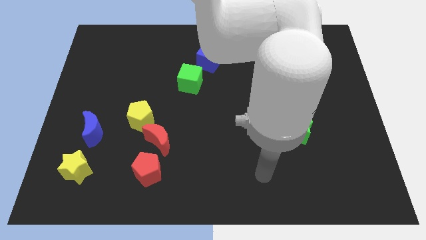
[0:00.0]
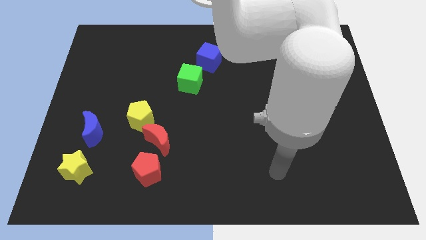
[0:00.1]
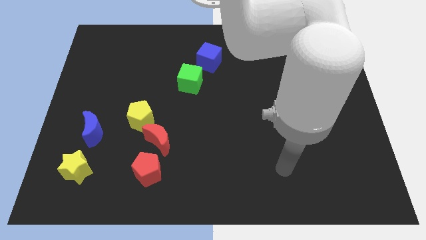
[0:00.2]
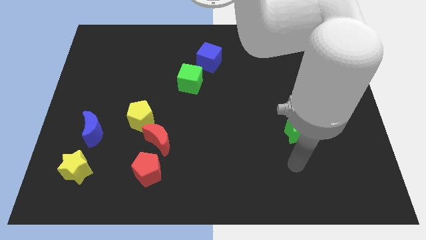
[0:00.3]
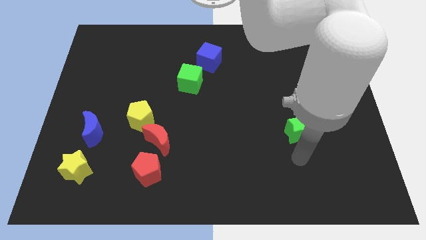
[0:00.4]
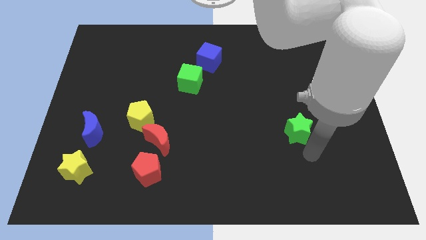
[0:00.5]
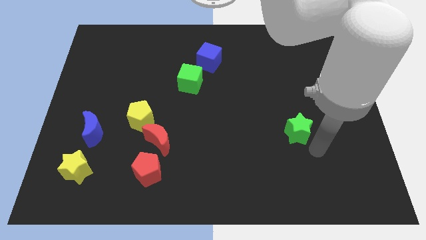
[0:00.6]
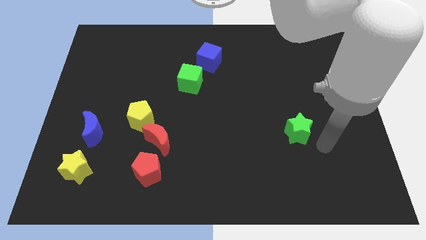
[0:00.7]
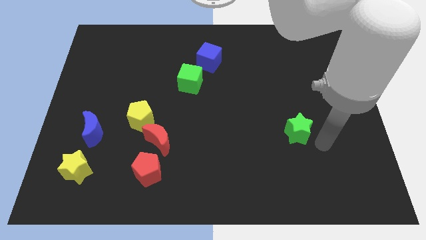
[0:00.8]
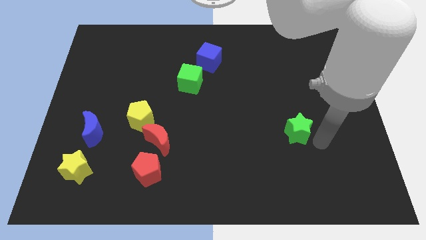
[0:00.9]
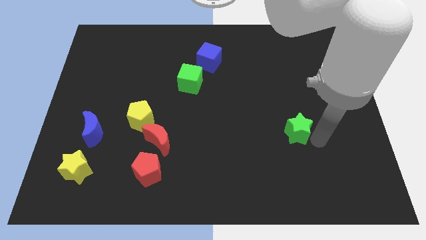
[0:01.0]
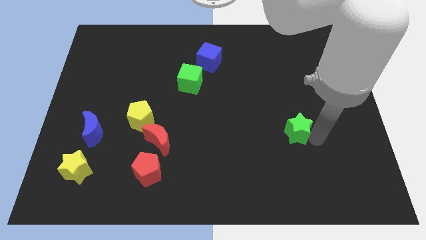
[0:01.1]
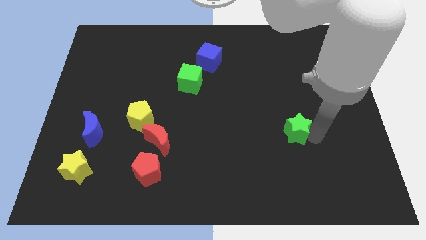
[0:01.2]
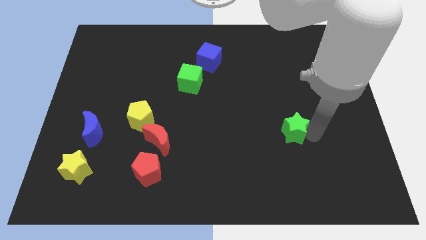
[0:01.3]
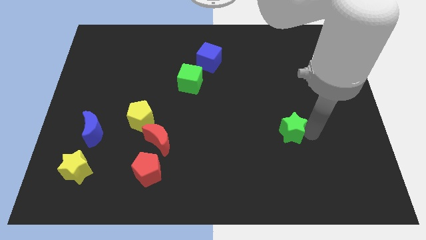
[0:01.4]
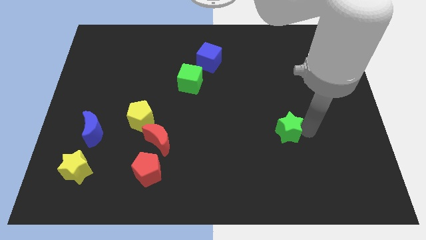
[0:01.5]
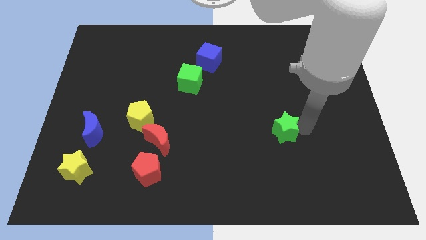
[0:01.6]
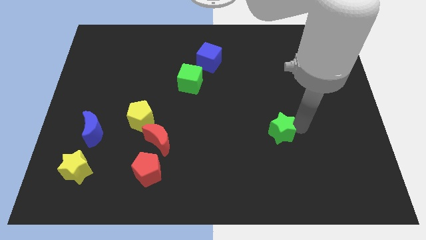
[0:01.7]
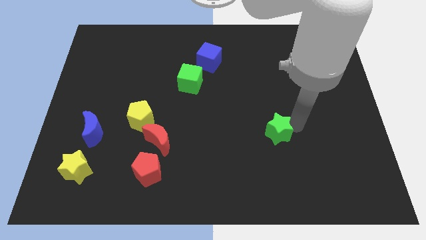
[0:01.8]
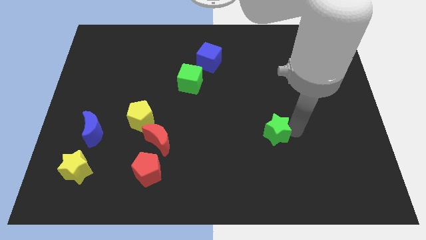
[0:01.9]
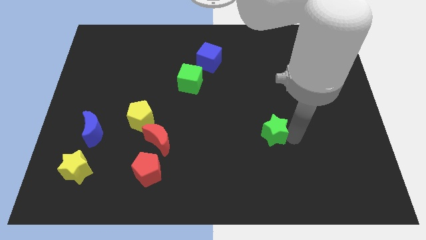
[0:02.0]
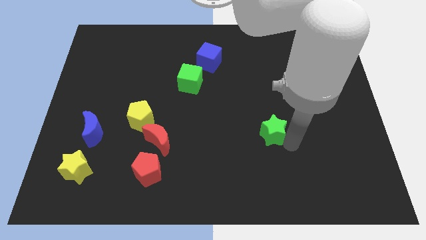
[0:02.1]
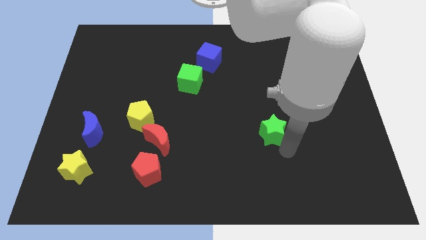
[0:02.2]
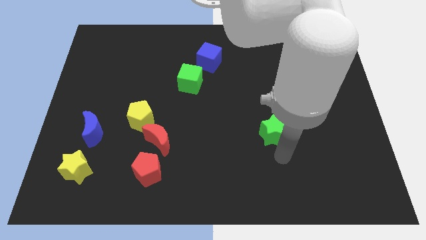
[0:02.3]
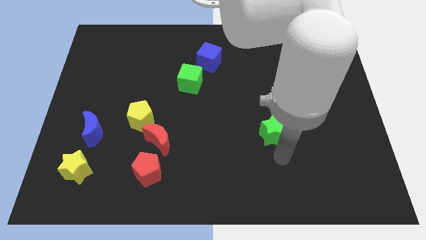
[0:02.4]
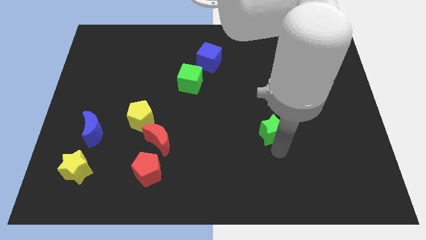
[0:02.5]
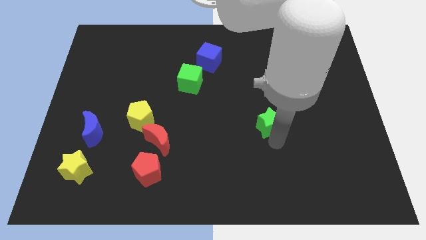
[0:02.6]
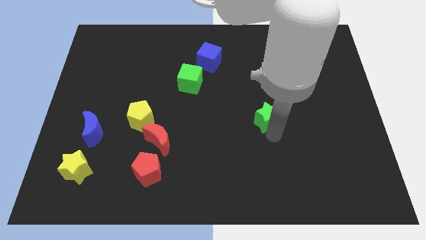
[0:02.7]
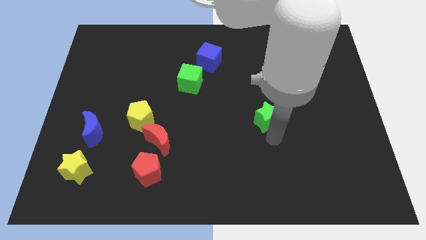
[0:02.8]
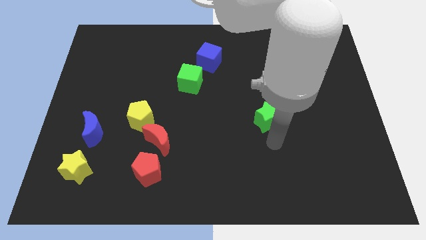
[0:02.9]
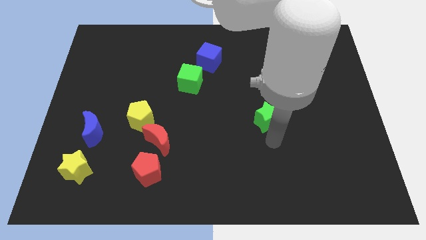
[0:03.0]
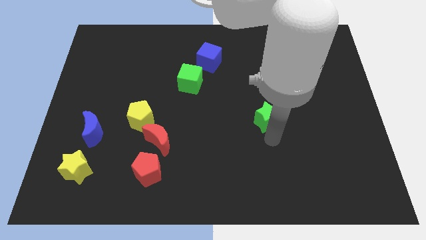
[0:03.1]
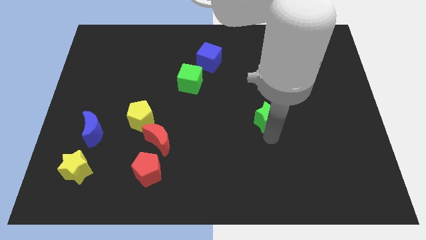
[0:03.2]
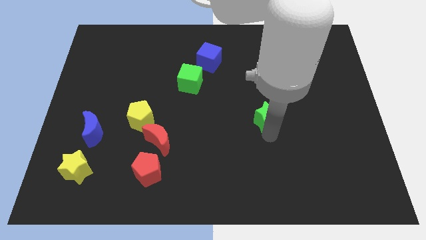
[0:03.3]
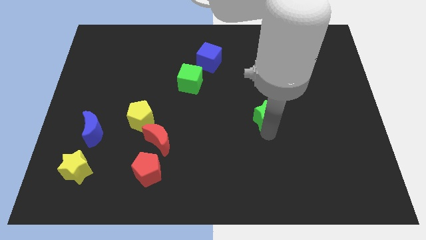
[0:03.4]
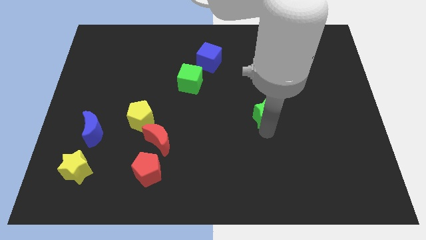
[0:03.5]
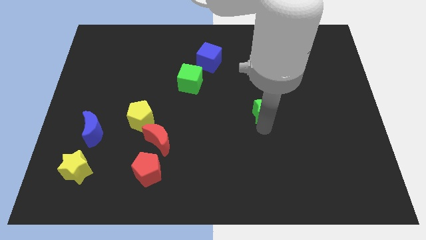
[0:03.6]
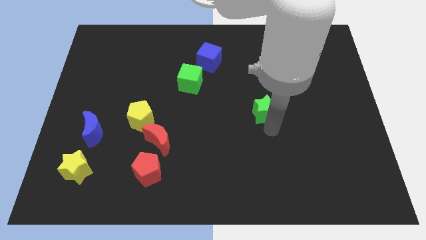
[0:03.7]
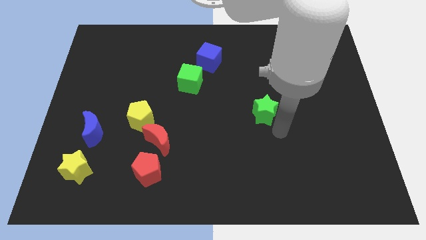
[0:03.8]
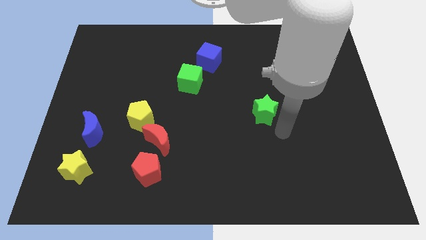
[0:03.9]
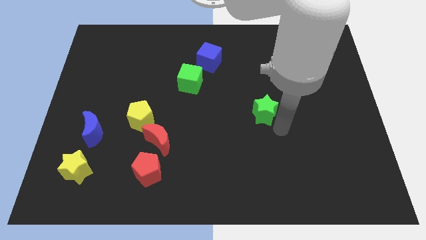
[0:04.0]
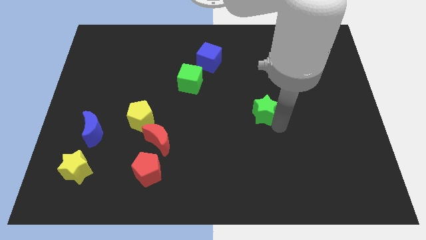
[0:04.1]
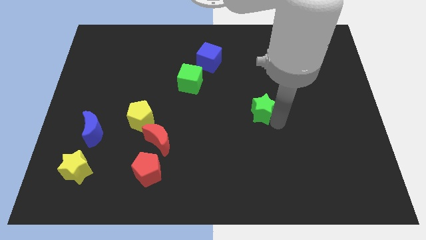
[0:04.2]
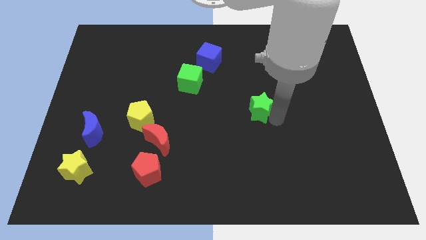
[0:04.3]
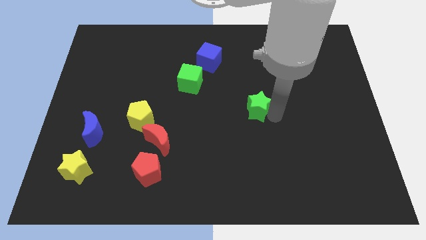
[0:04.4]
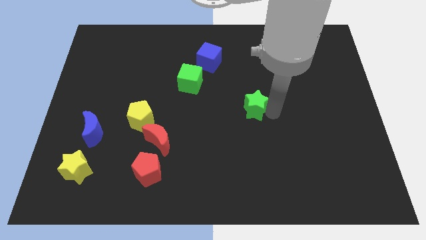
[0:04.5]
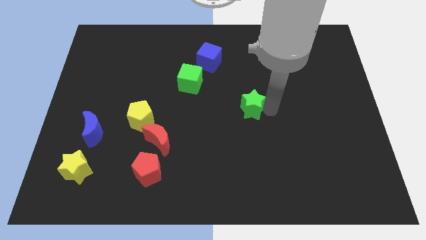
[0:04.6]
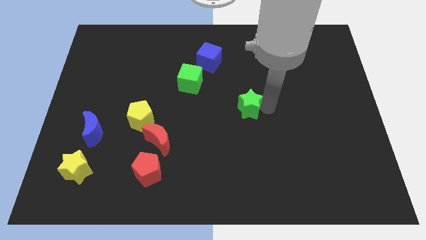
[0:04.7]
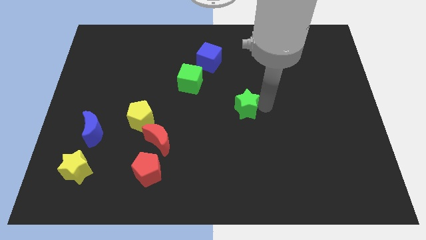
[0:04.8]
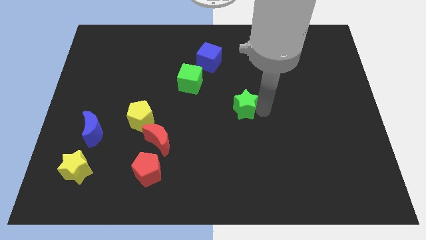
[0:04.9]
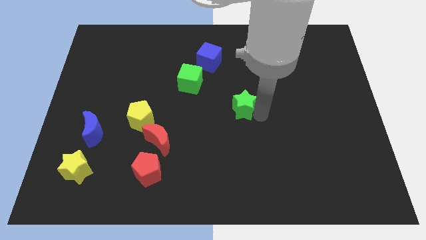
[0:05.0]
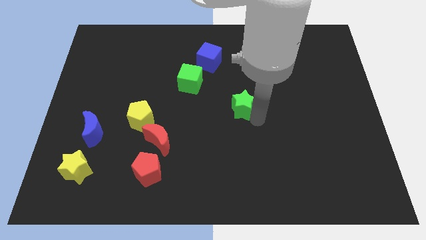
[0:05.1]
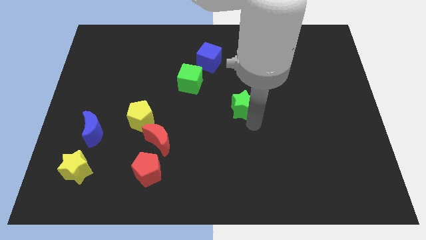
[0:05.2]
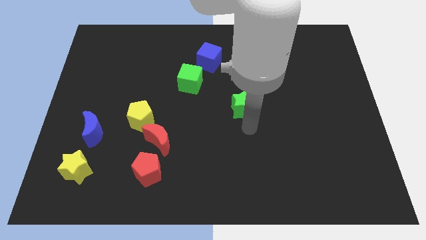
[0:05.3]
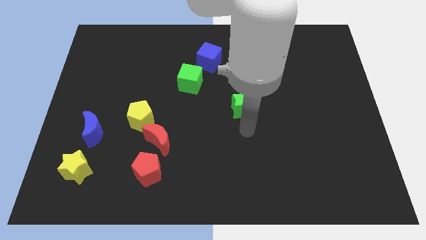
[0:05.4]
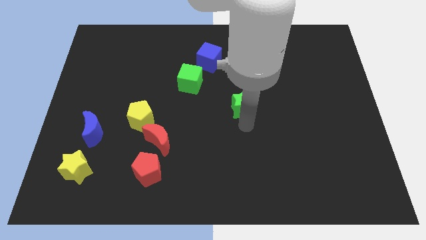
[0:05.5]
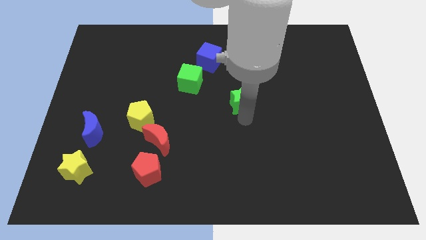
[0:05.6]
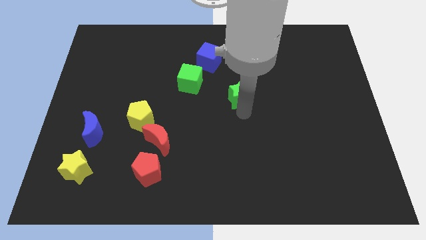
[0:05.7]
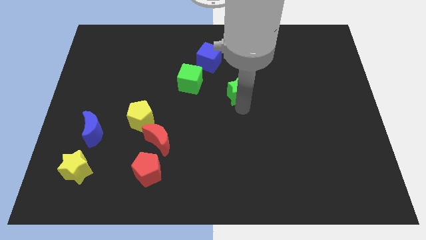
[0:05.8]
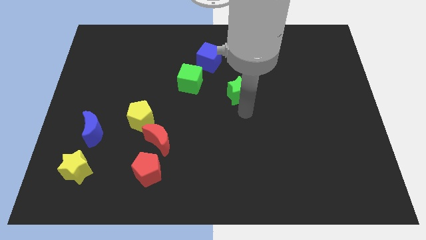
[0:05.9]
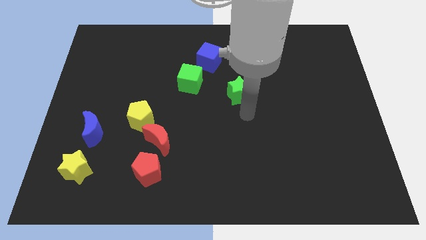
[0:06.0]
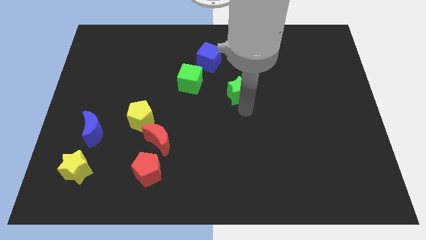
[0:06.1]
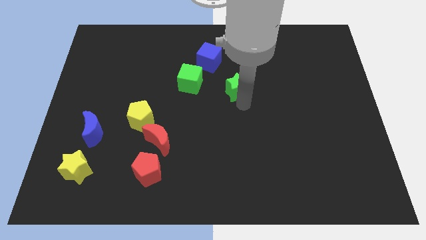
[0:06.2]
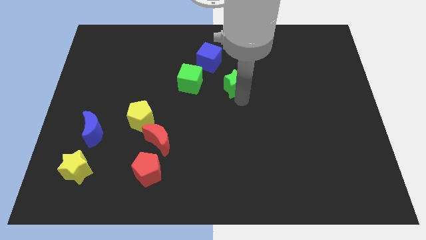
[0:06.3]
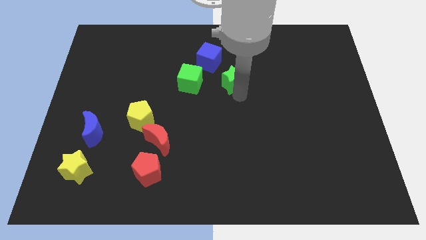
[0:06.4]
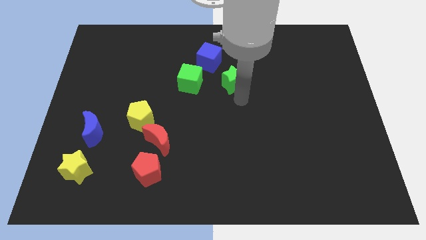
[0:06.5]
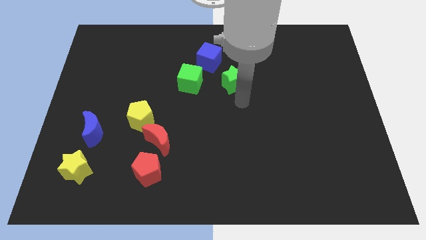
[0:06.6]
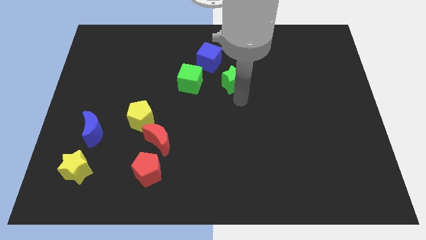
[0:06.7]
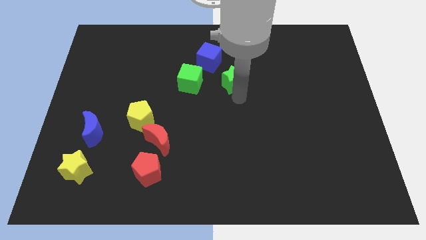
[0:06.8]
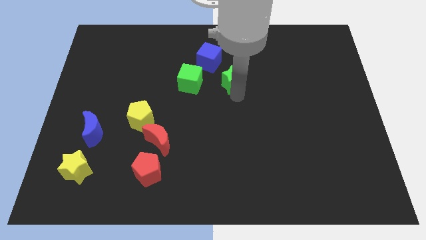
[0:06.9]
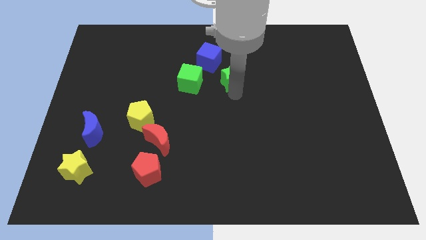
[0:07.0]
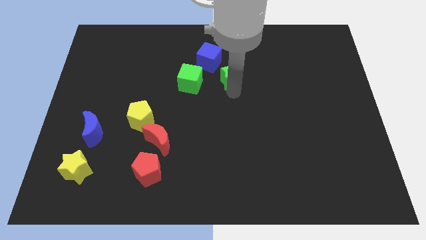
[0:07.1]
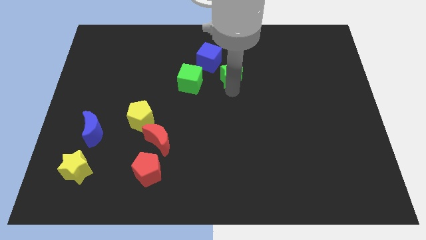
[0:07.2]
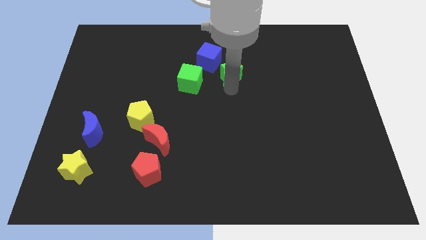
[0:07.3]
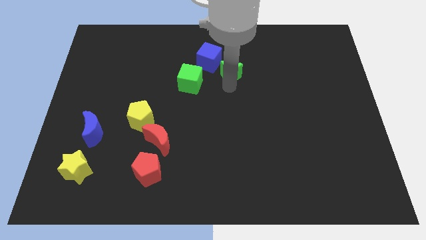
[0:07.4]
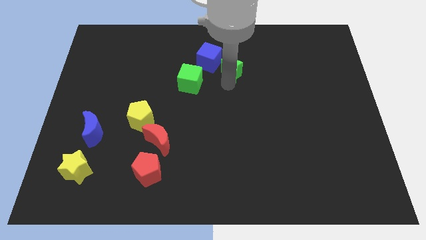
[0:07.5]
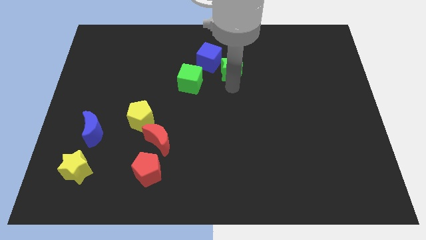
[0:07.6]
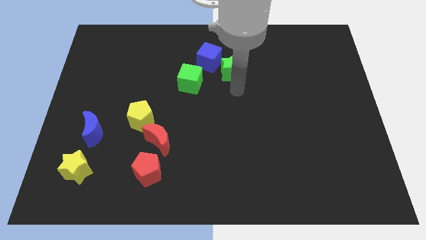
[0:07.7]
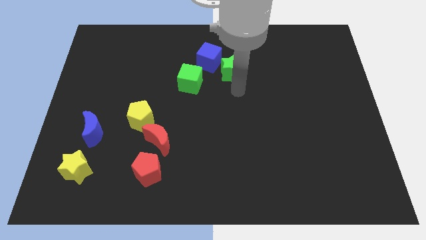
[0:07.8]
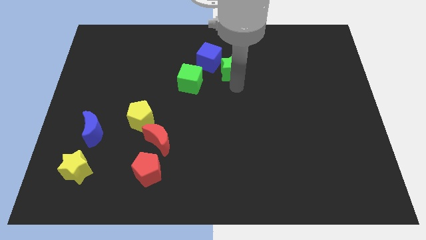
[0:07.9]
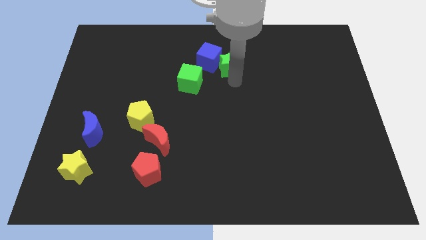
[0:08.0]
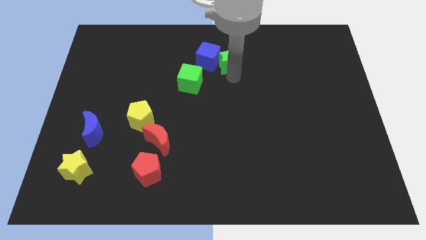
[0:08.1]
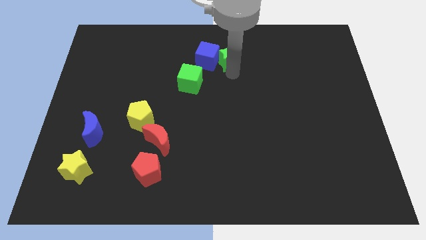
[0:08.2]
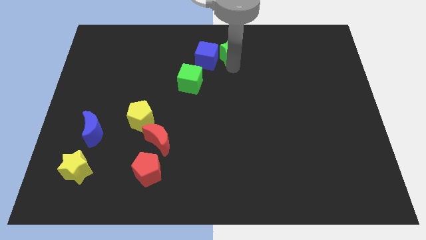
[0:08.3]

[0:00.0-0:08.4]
put the green star to the towards your base
